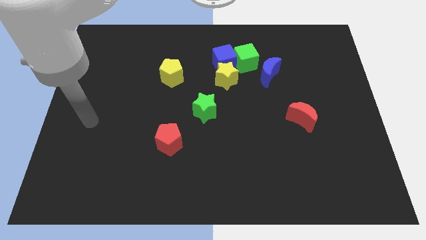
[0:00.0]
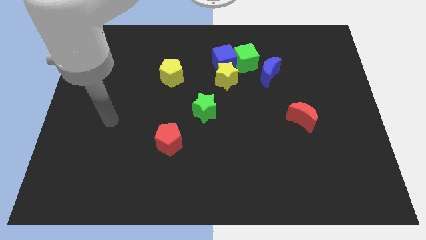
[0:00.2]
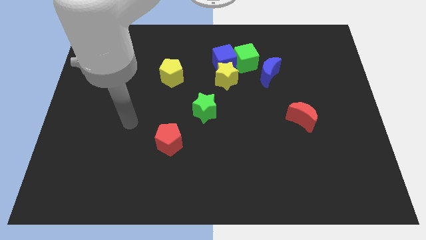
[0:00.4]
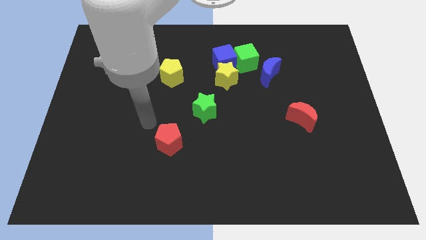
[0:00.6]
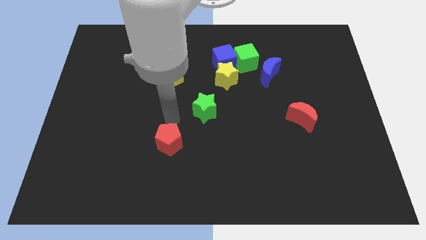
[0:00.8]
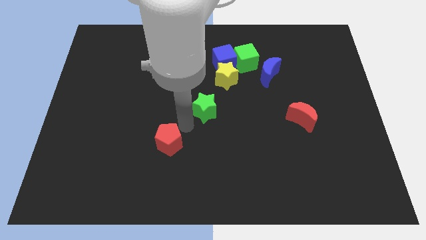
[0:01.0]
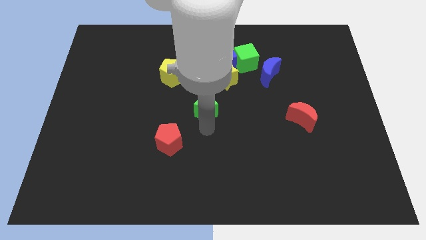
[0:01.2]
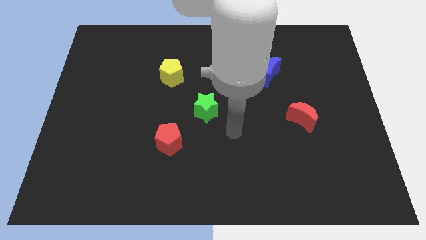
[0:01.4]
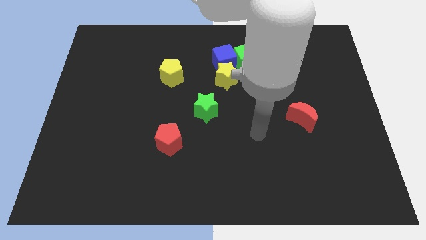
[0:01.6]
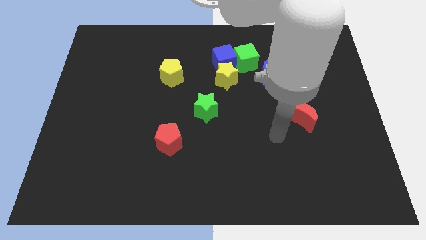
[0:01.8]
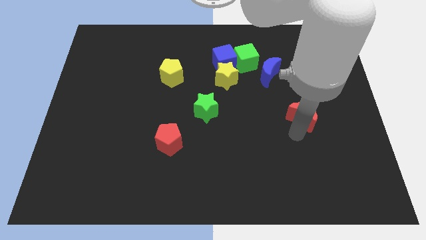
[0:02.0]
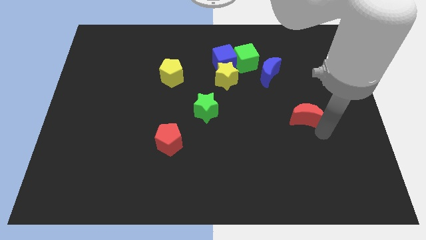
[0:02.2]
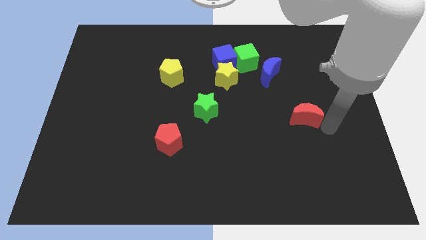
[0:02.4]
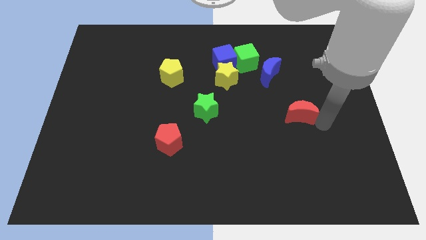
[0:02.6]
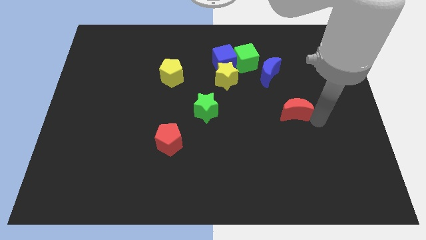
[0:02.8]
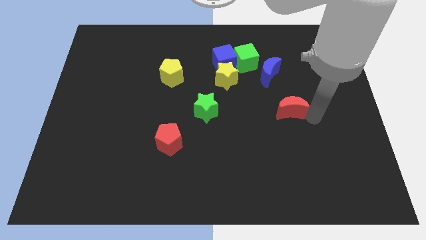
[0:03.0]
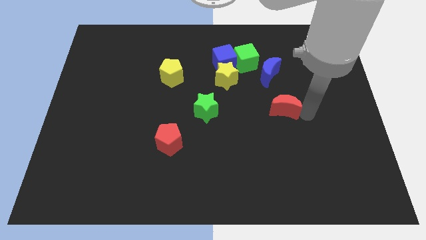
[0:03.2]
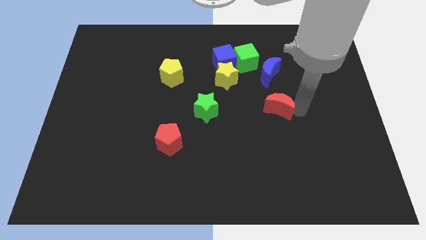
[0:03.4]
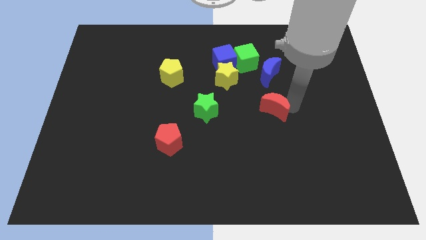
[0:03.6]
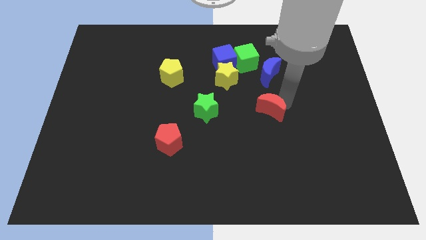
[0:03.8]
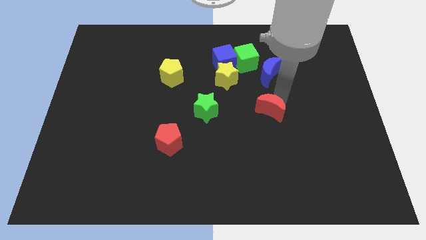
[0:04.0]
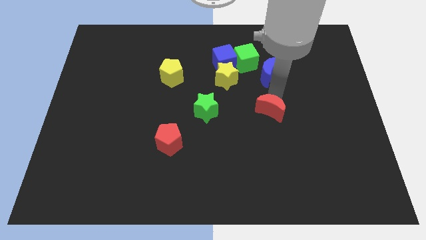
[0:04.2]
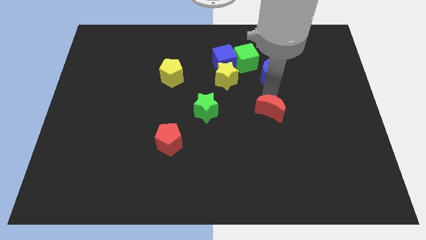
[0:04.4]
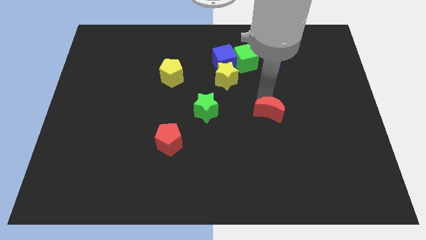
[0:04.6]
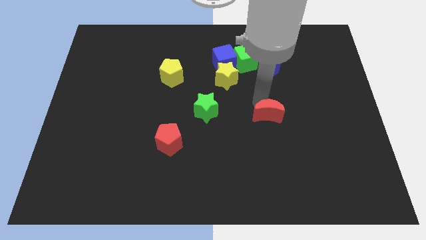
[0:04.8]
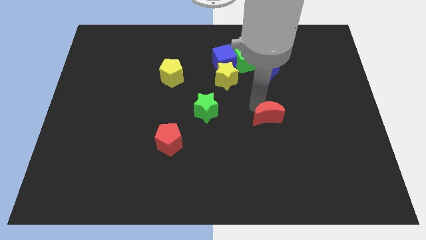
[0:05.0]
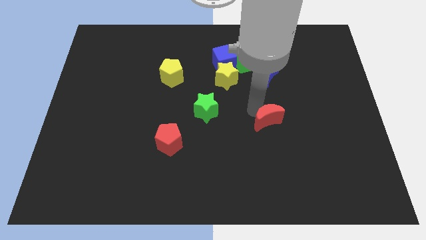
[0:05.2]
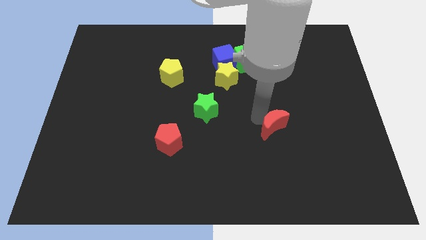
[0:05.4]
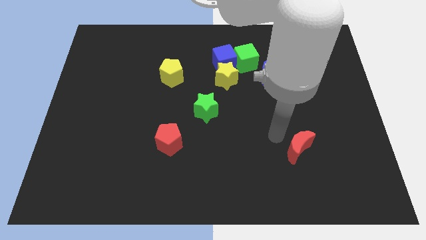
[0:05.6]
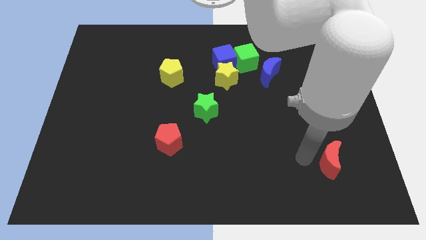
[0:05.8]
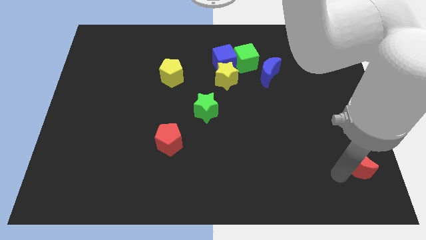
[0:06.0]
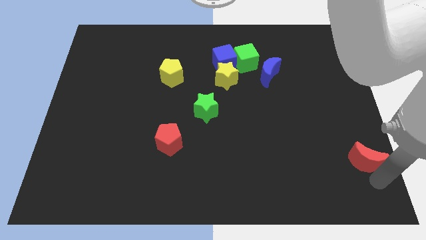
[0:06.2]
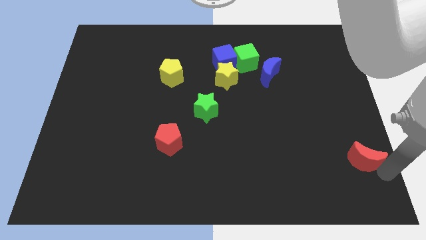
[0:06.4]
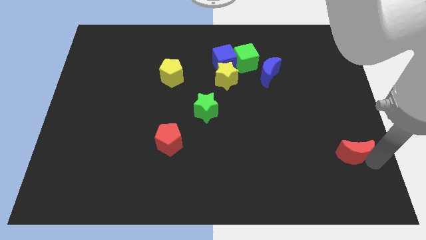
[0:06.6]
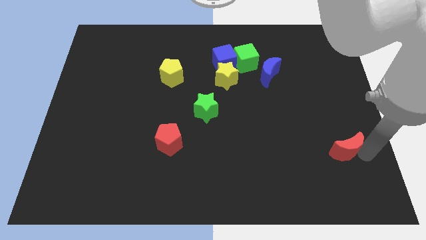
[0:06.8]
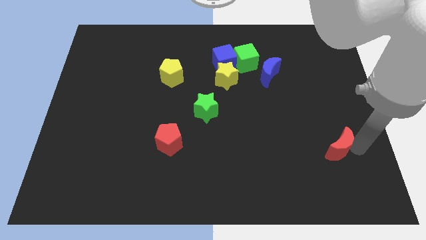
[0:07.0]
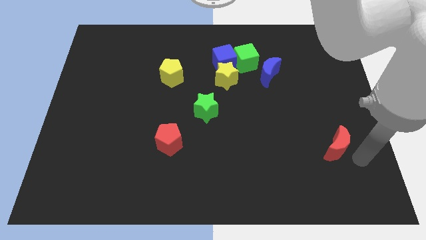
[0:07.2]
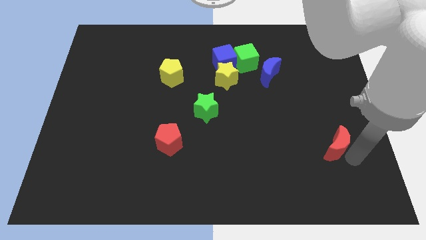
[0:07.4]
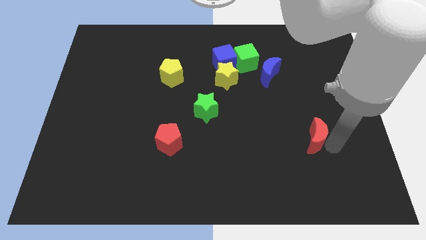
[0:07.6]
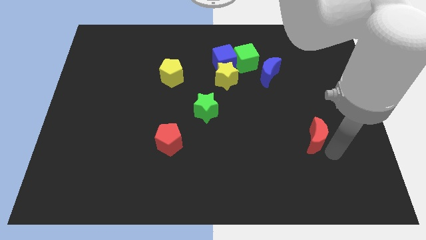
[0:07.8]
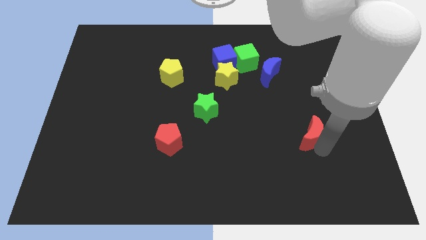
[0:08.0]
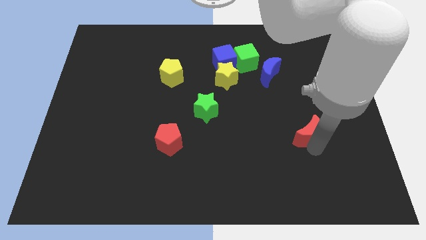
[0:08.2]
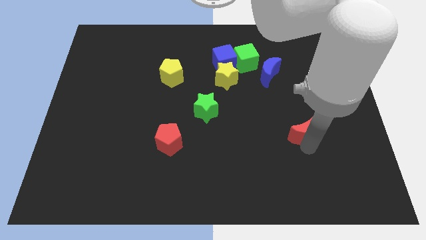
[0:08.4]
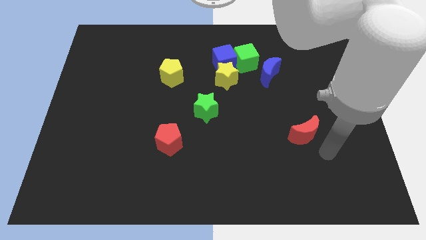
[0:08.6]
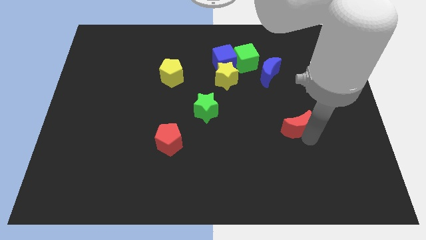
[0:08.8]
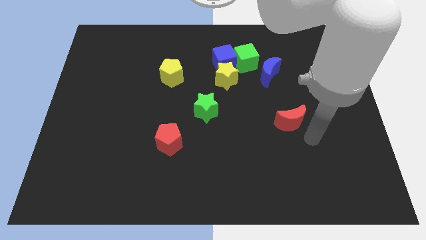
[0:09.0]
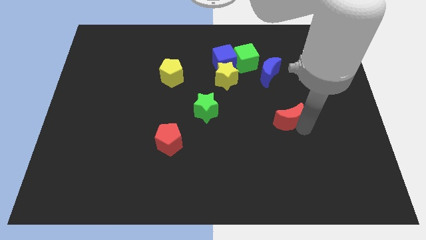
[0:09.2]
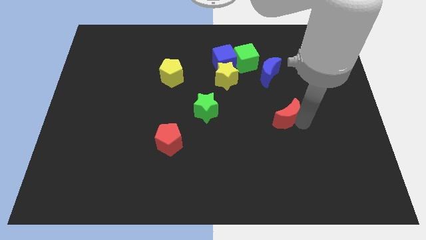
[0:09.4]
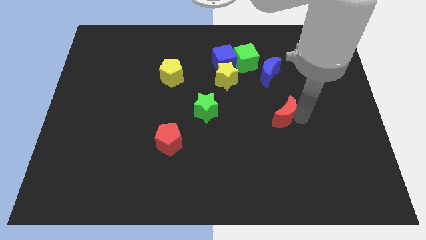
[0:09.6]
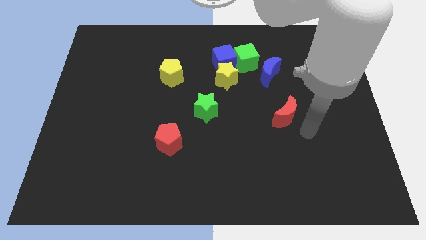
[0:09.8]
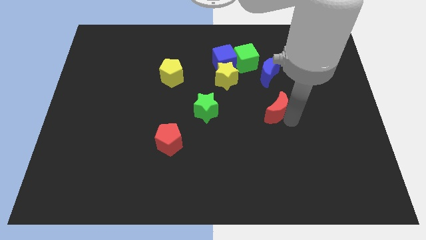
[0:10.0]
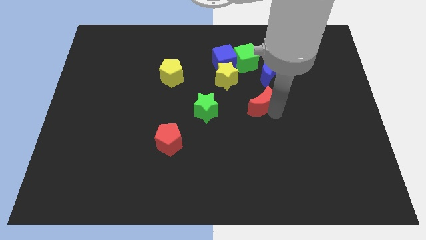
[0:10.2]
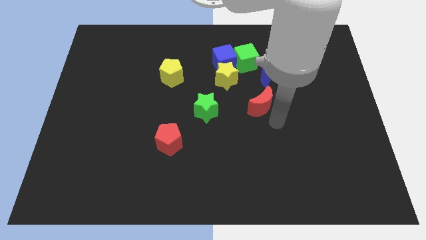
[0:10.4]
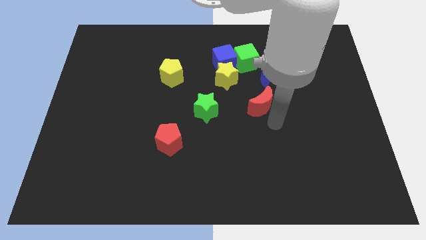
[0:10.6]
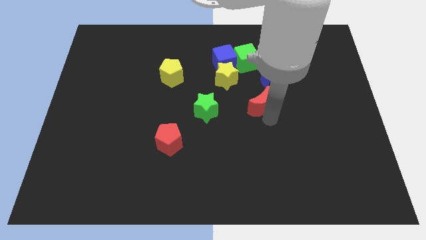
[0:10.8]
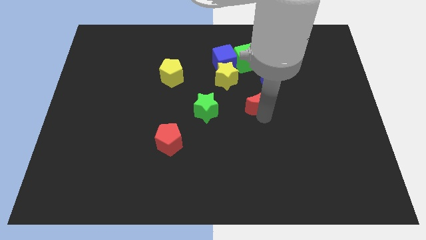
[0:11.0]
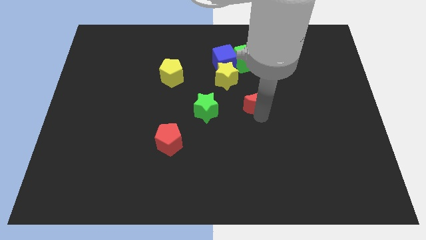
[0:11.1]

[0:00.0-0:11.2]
slide the red moon to the bottom left side of the blue moon

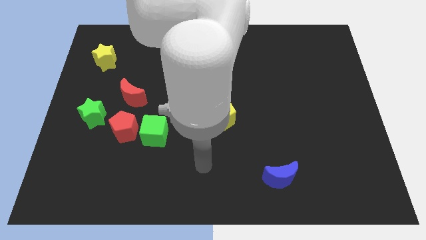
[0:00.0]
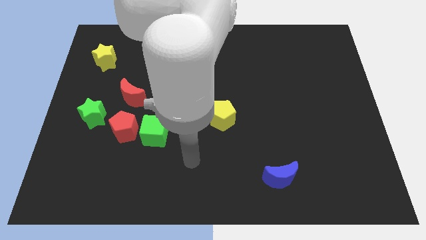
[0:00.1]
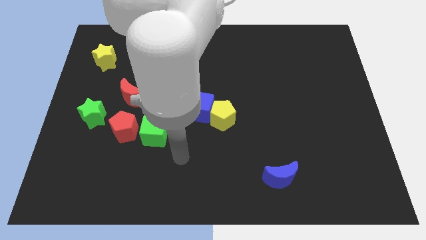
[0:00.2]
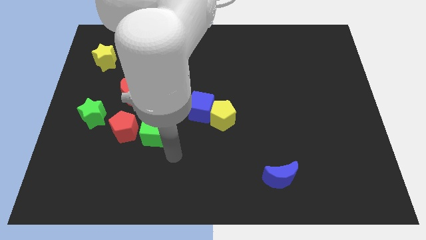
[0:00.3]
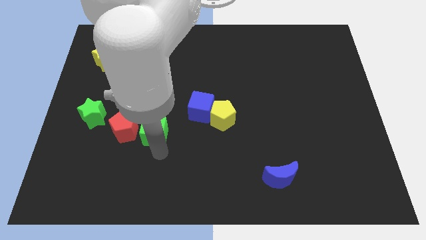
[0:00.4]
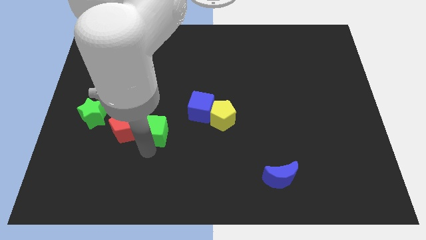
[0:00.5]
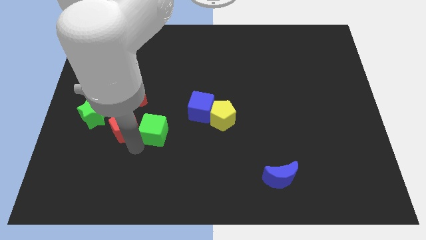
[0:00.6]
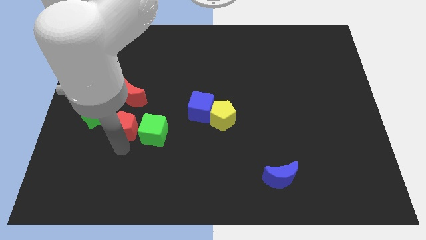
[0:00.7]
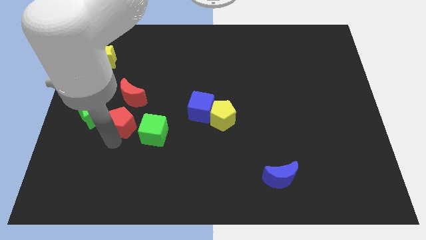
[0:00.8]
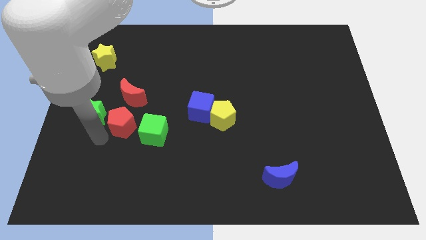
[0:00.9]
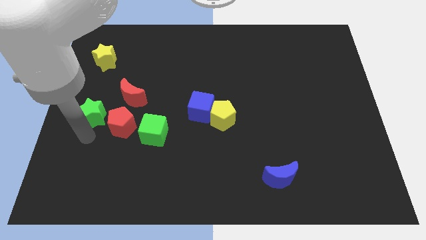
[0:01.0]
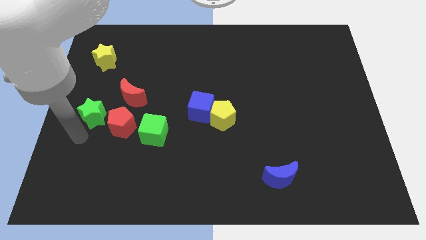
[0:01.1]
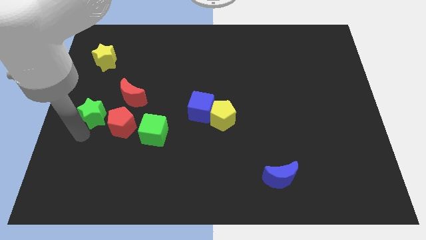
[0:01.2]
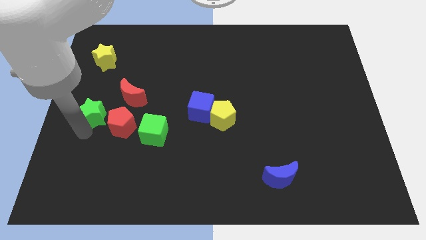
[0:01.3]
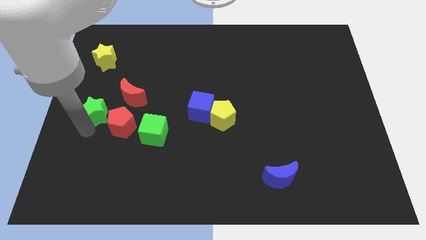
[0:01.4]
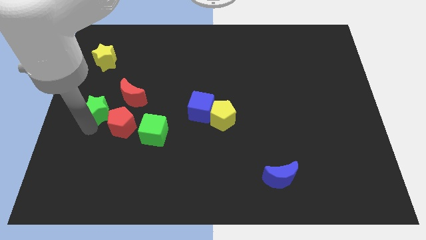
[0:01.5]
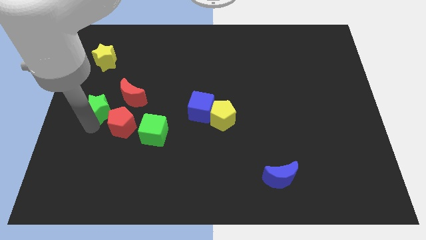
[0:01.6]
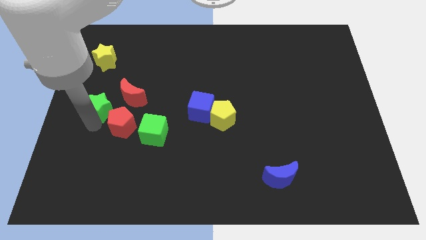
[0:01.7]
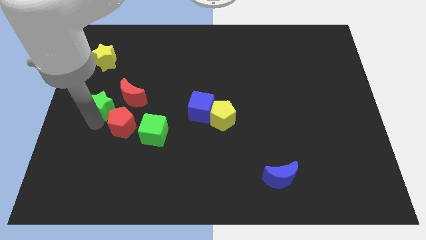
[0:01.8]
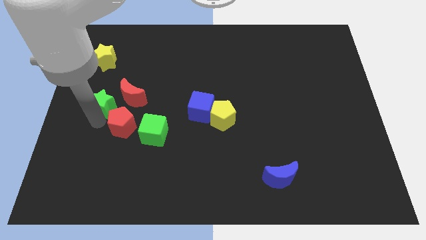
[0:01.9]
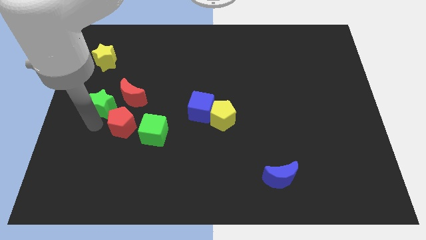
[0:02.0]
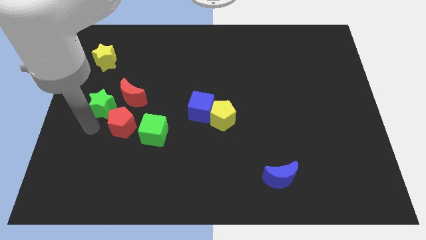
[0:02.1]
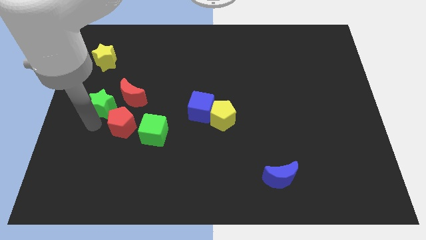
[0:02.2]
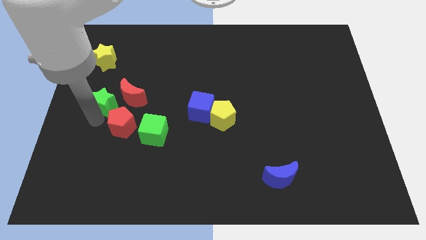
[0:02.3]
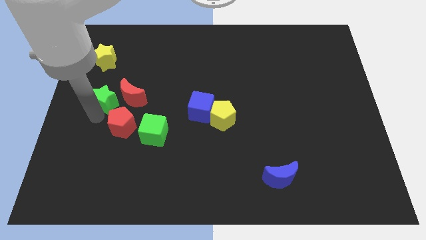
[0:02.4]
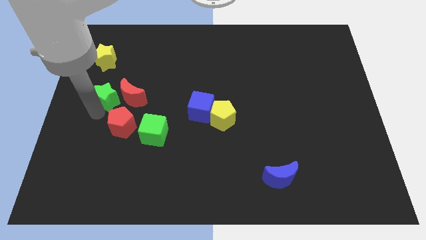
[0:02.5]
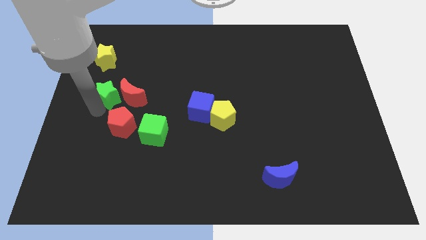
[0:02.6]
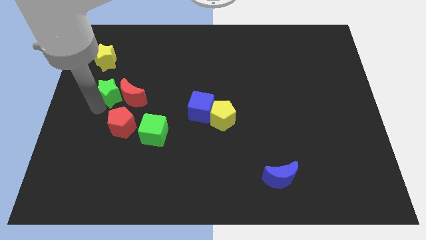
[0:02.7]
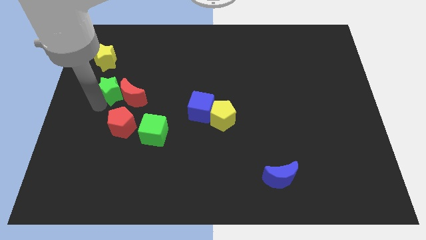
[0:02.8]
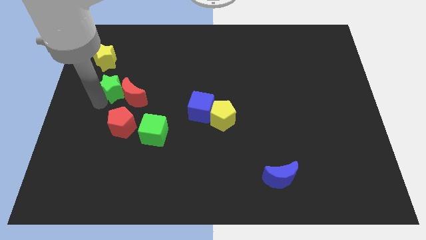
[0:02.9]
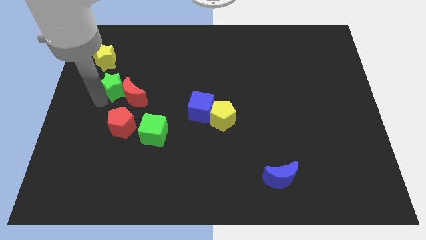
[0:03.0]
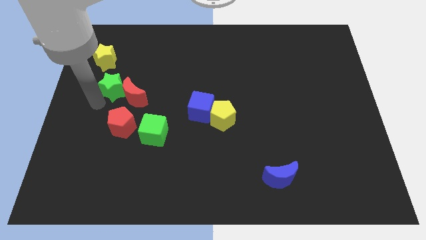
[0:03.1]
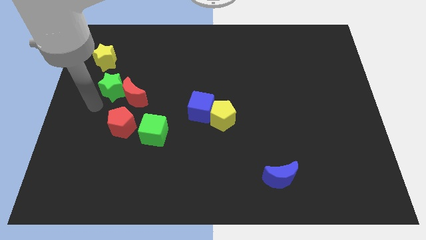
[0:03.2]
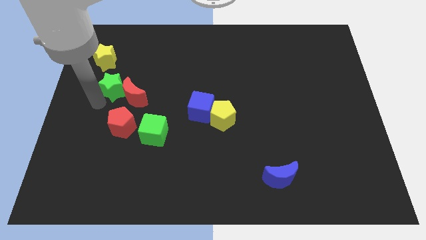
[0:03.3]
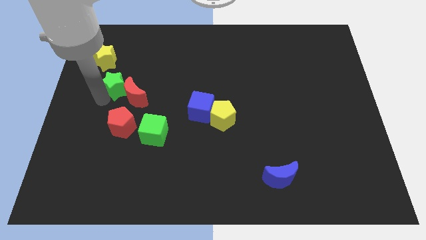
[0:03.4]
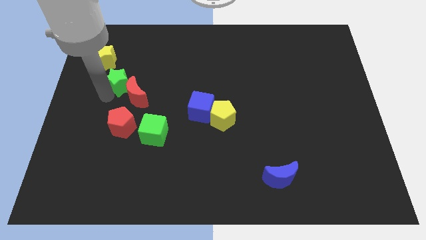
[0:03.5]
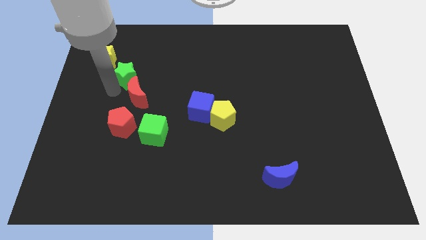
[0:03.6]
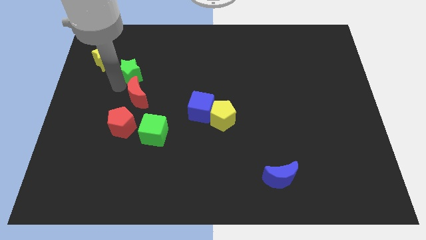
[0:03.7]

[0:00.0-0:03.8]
put the green star right of the yellow star
